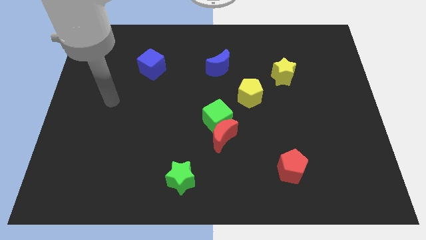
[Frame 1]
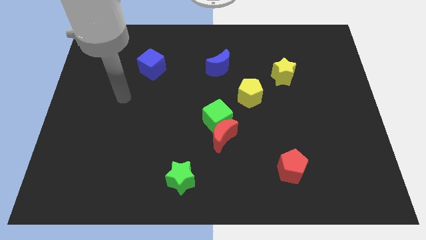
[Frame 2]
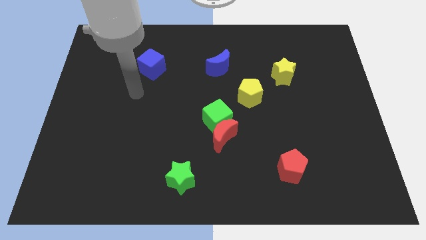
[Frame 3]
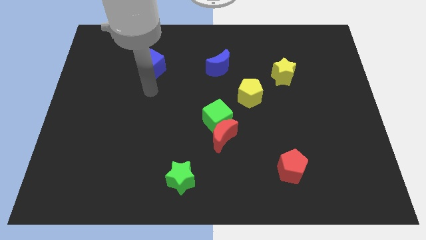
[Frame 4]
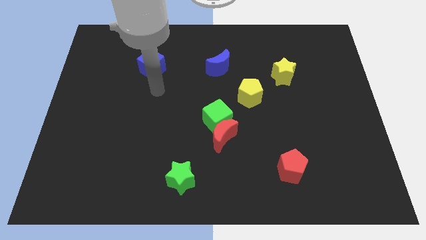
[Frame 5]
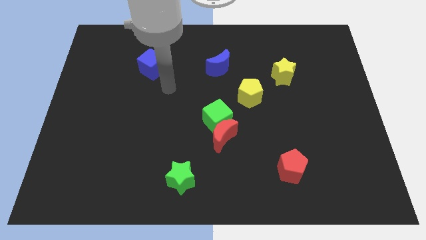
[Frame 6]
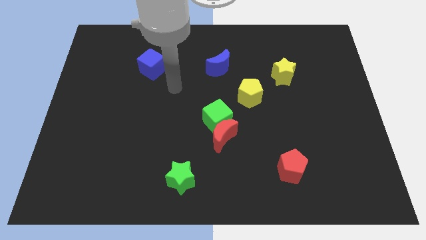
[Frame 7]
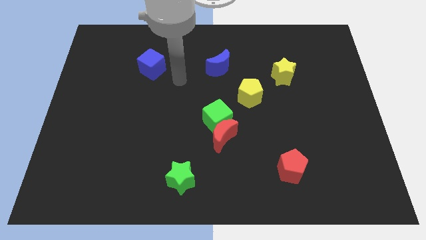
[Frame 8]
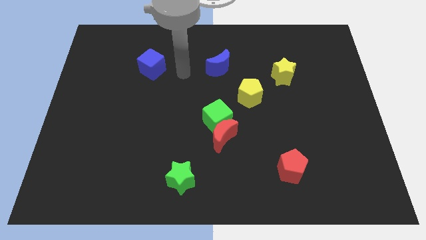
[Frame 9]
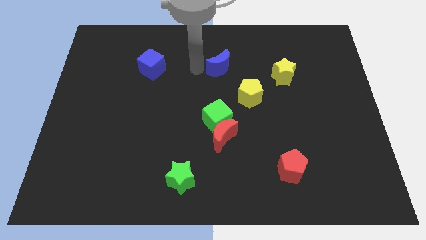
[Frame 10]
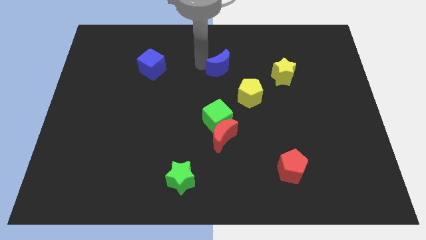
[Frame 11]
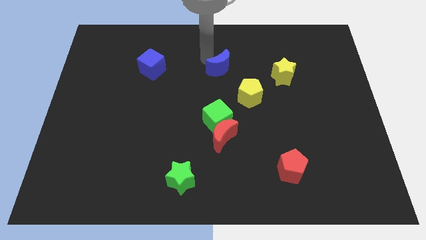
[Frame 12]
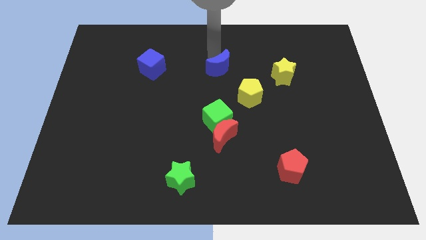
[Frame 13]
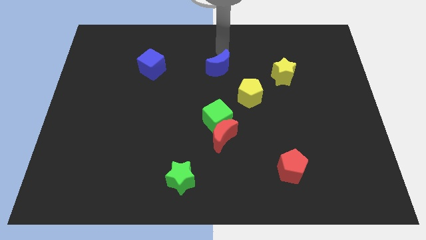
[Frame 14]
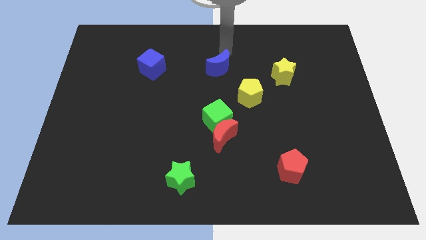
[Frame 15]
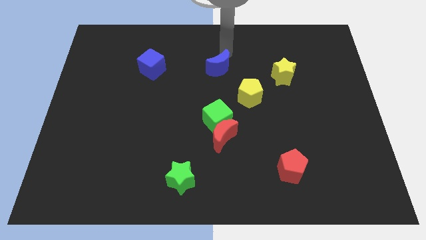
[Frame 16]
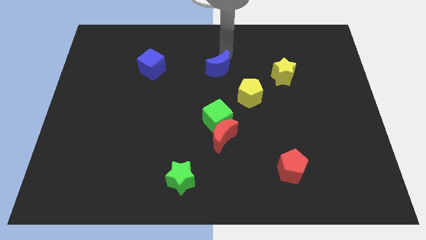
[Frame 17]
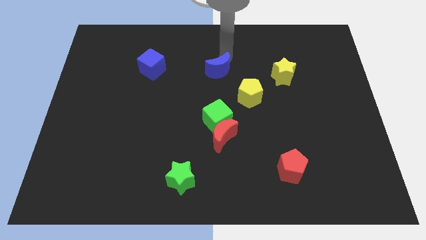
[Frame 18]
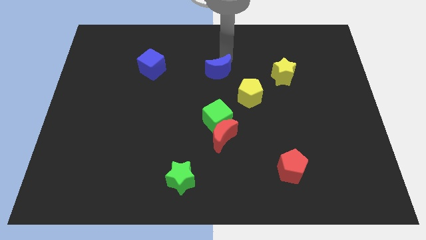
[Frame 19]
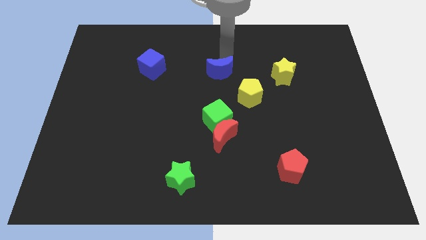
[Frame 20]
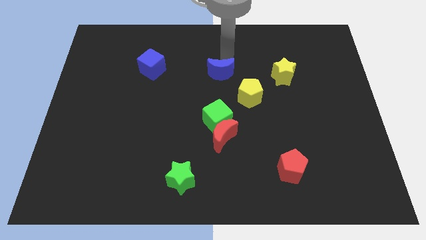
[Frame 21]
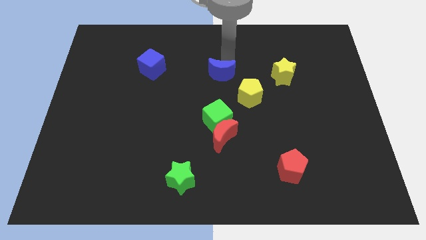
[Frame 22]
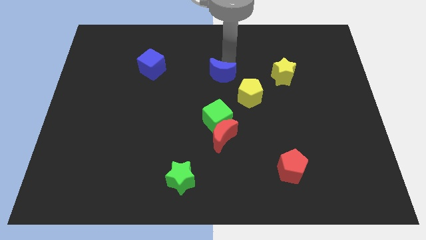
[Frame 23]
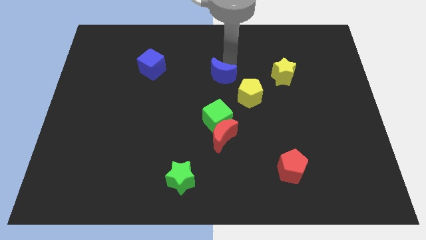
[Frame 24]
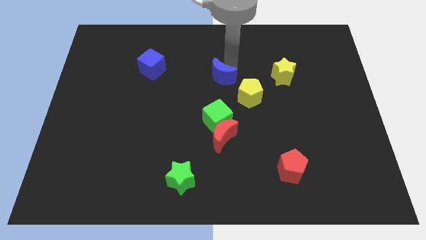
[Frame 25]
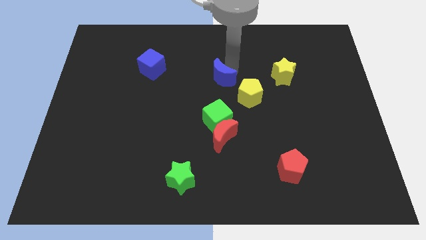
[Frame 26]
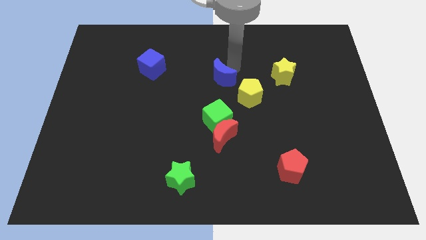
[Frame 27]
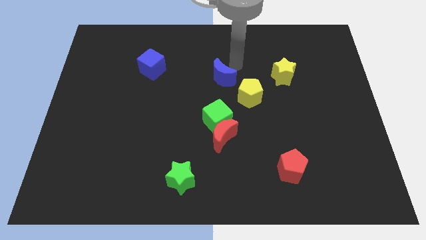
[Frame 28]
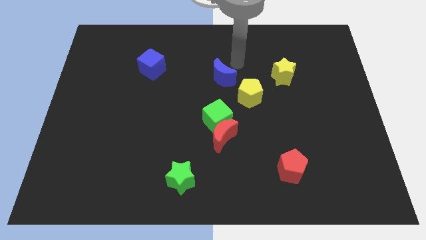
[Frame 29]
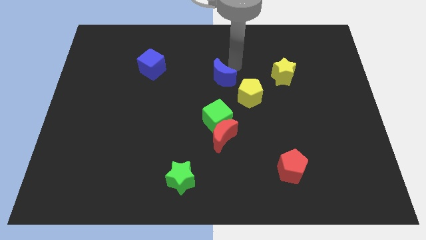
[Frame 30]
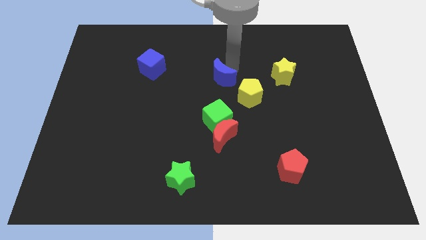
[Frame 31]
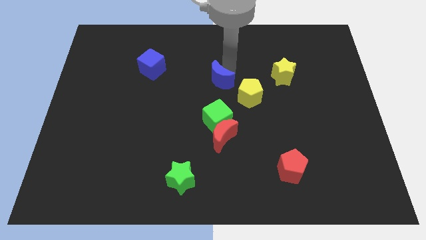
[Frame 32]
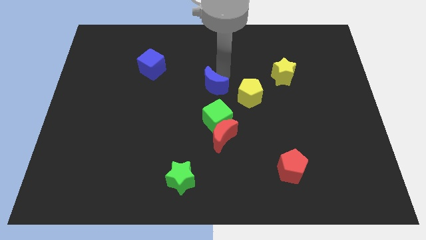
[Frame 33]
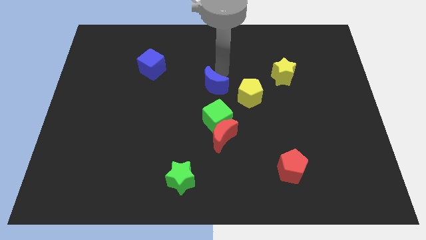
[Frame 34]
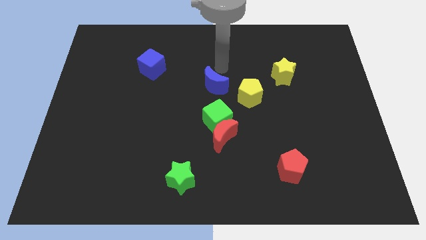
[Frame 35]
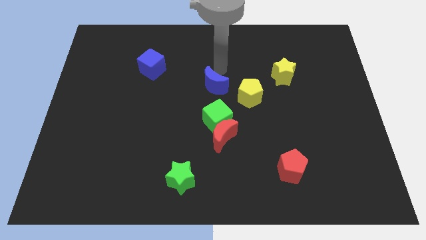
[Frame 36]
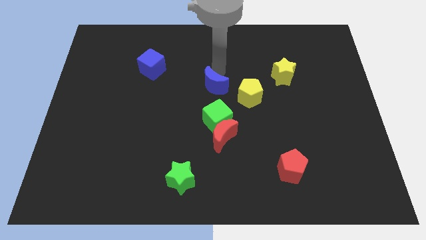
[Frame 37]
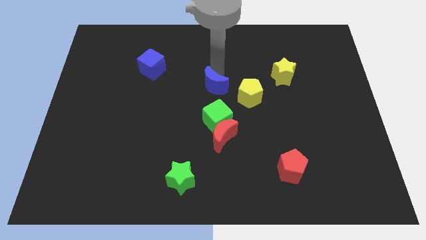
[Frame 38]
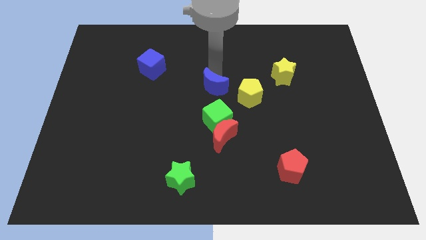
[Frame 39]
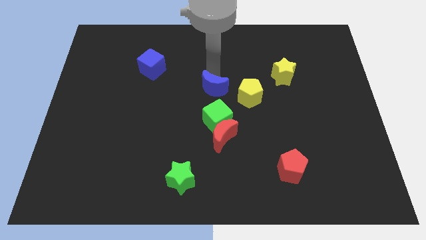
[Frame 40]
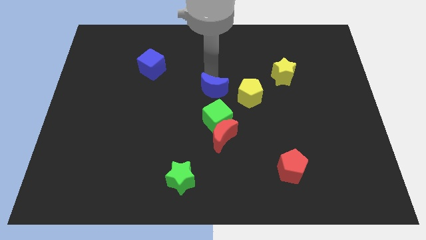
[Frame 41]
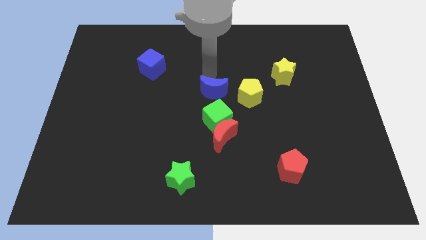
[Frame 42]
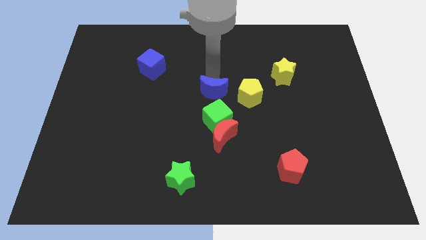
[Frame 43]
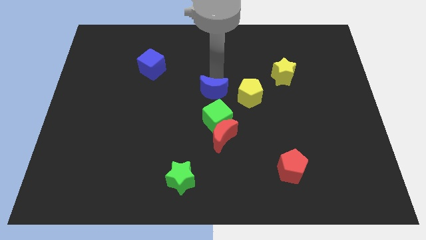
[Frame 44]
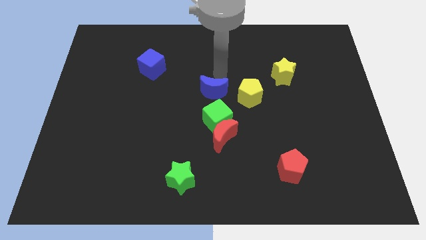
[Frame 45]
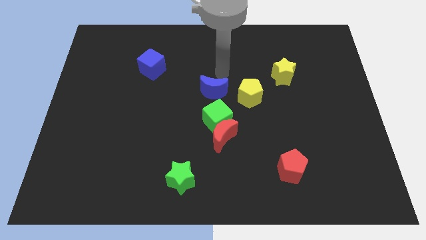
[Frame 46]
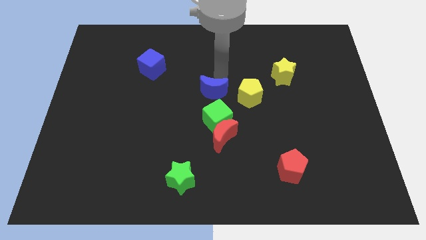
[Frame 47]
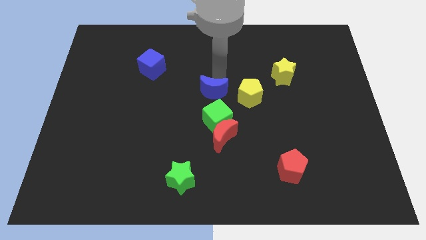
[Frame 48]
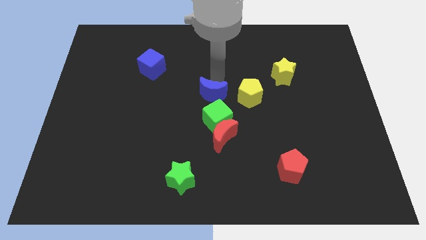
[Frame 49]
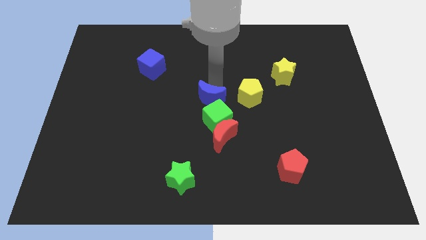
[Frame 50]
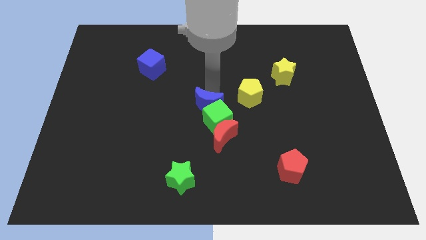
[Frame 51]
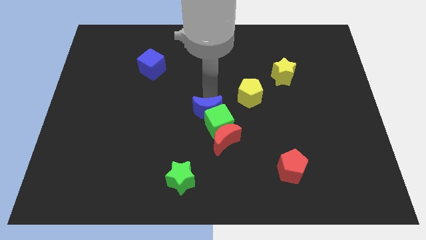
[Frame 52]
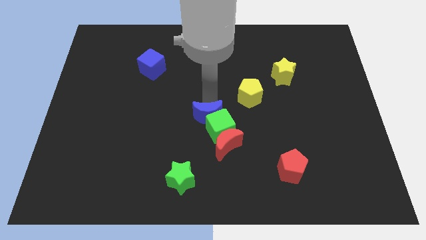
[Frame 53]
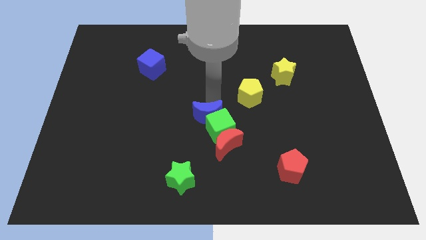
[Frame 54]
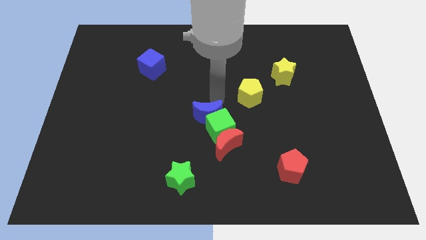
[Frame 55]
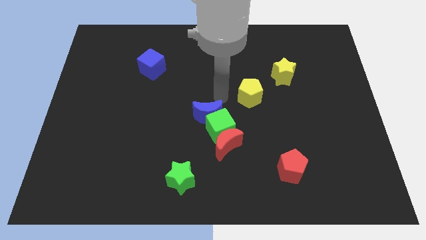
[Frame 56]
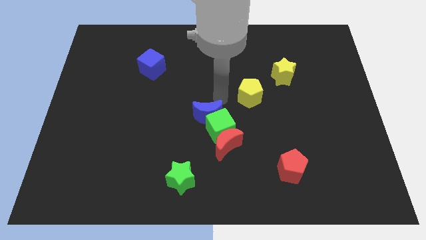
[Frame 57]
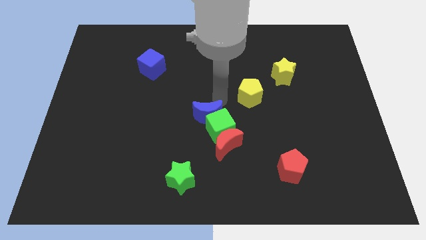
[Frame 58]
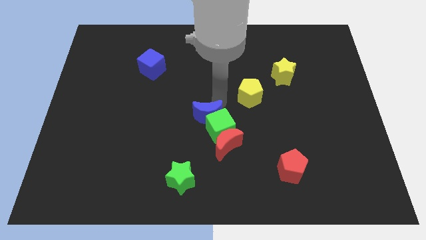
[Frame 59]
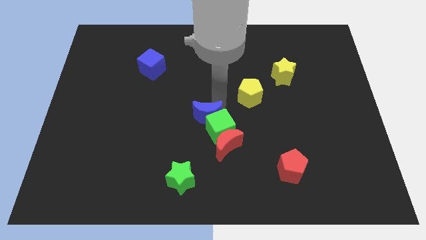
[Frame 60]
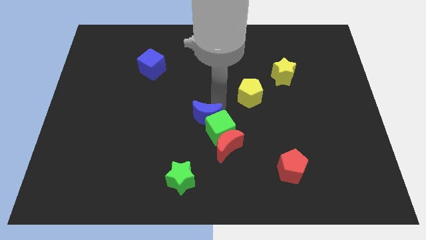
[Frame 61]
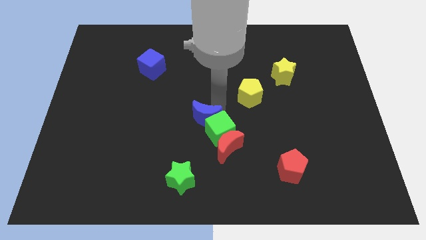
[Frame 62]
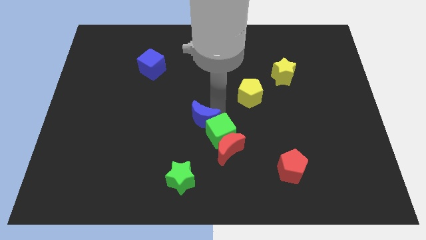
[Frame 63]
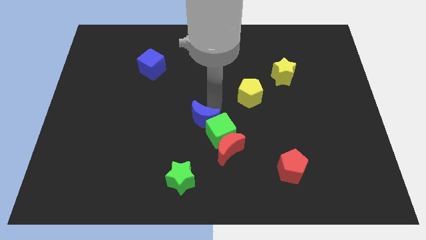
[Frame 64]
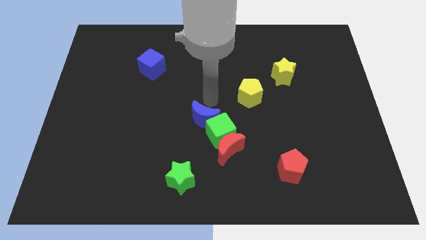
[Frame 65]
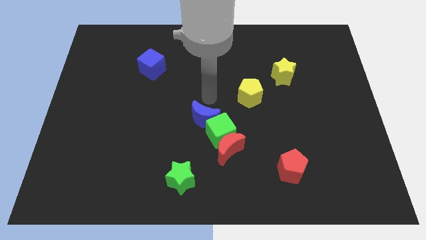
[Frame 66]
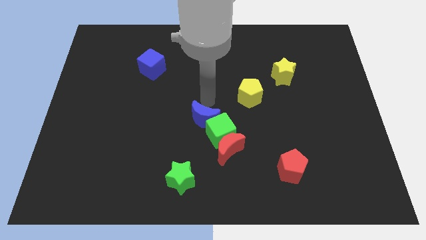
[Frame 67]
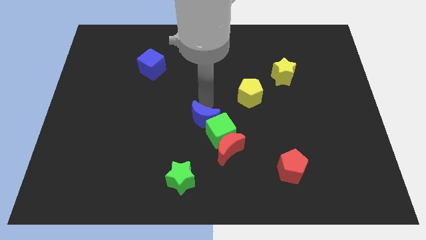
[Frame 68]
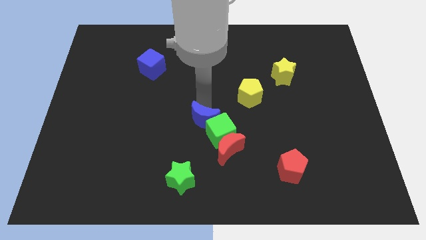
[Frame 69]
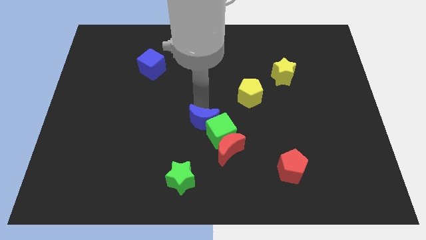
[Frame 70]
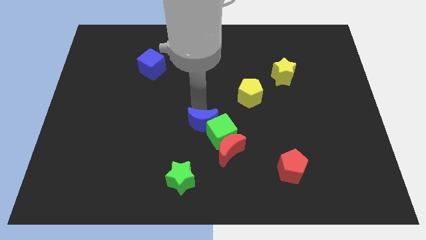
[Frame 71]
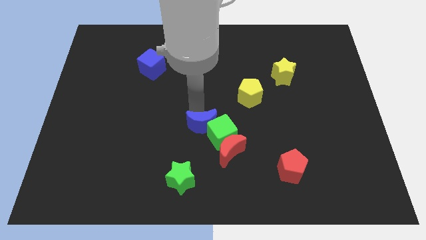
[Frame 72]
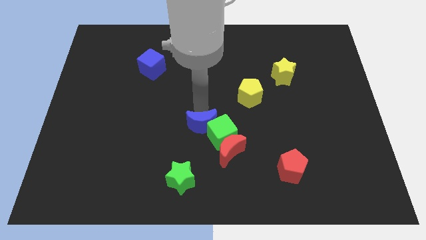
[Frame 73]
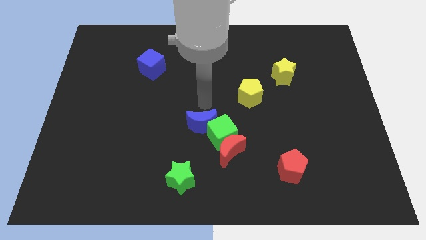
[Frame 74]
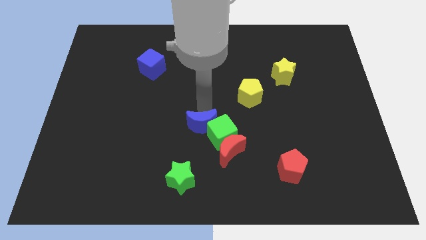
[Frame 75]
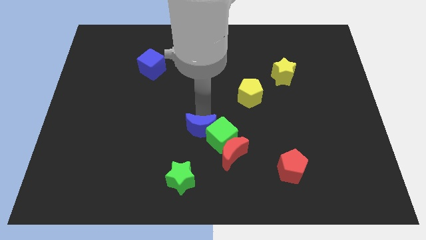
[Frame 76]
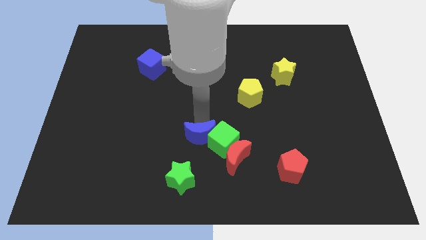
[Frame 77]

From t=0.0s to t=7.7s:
slide the blue moon to the bottom left of the green cube
